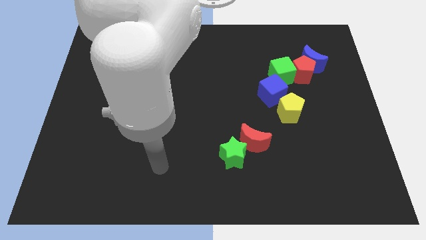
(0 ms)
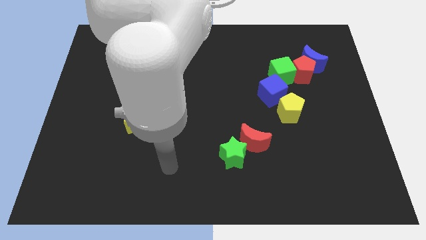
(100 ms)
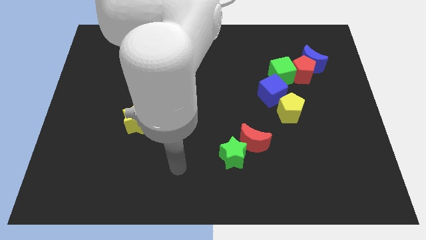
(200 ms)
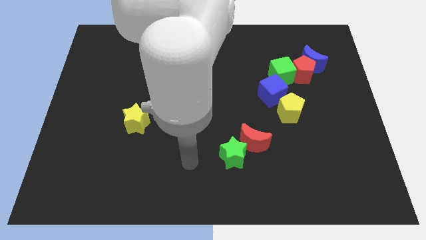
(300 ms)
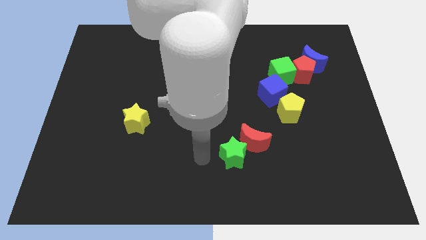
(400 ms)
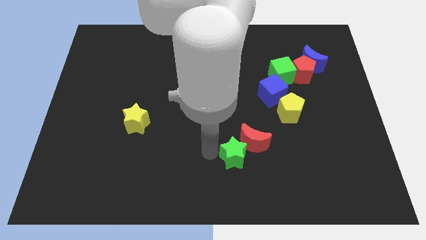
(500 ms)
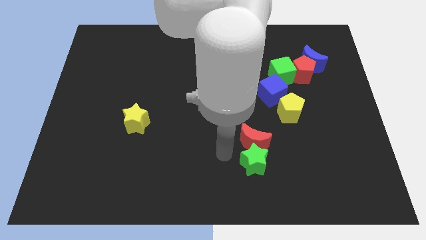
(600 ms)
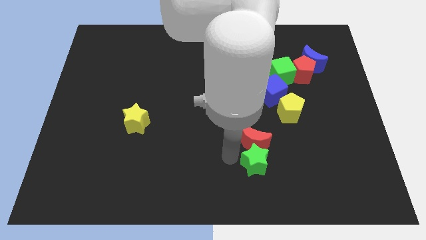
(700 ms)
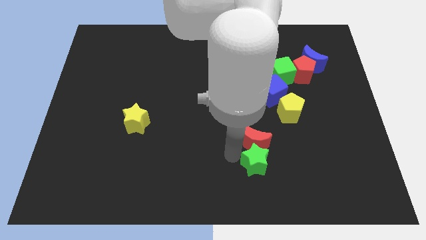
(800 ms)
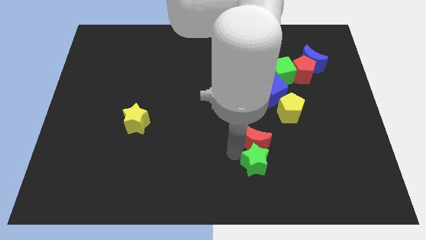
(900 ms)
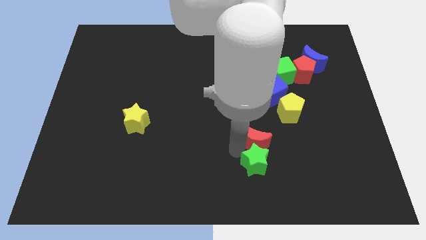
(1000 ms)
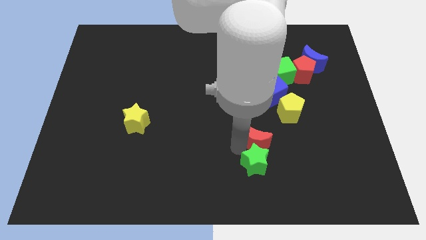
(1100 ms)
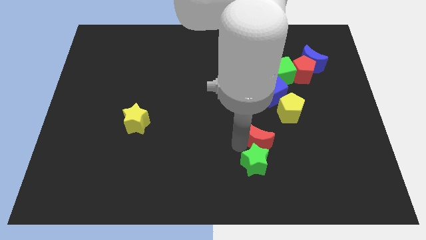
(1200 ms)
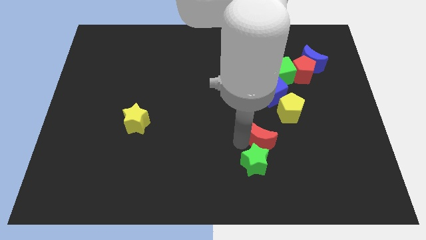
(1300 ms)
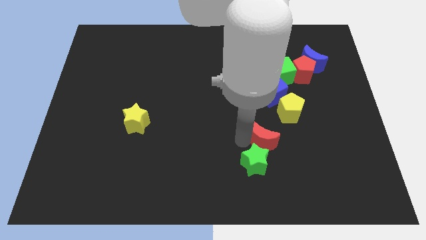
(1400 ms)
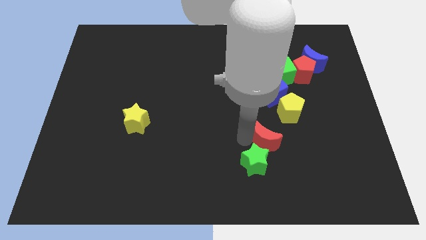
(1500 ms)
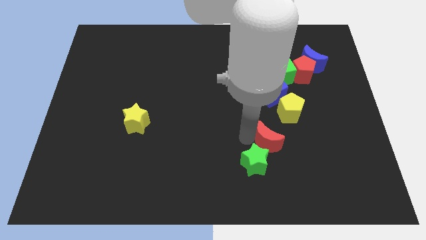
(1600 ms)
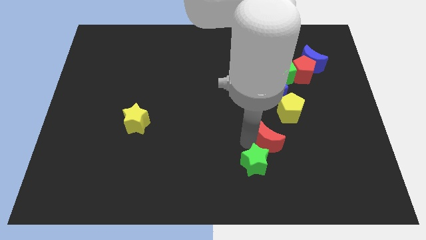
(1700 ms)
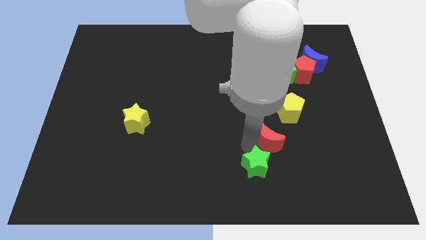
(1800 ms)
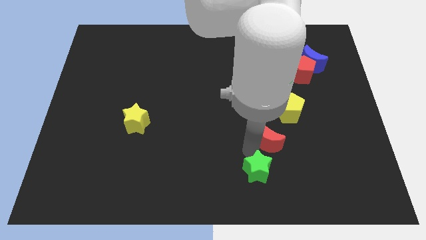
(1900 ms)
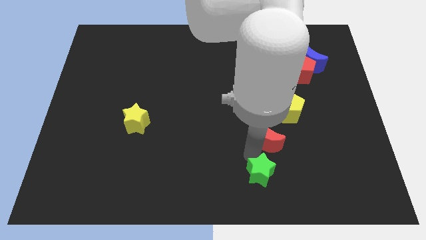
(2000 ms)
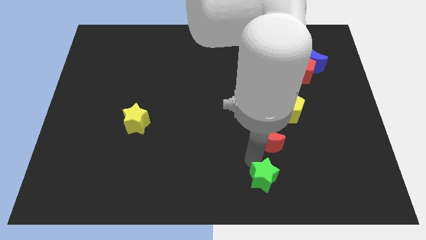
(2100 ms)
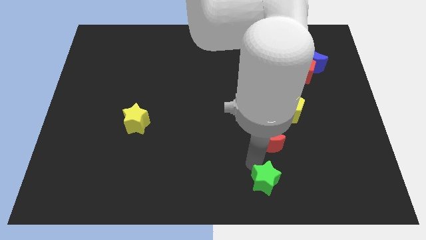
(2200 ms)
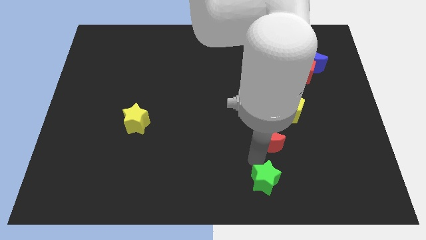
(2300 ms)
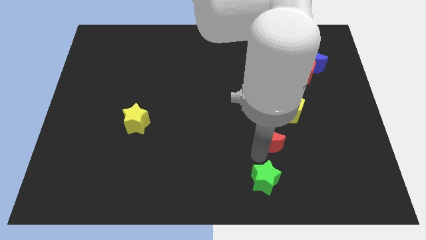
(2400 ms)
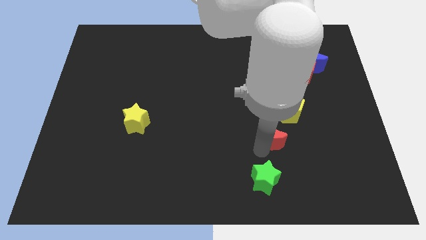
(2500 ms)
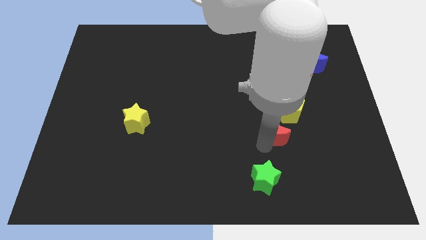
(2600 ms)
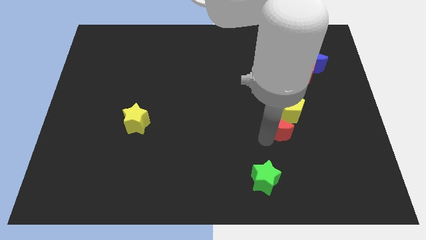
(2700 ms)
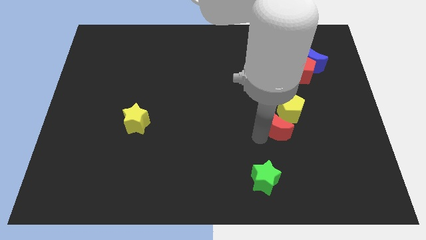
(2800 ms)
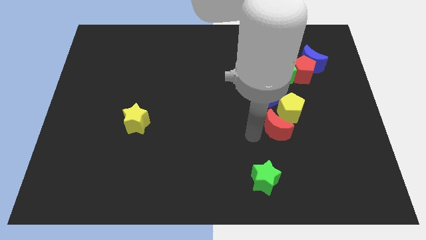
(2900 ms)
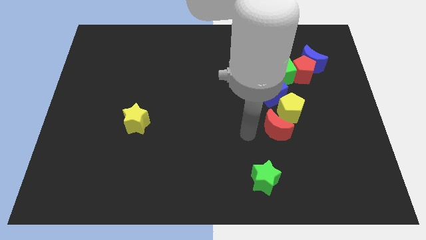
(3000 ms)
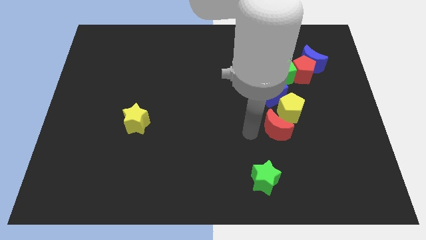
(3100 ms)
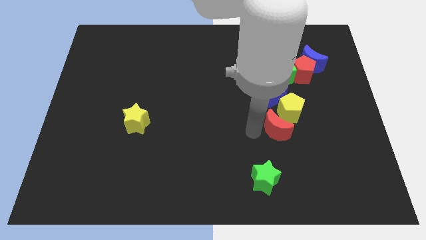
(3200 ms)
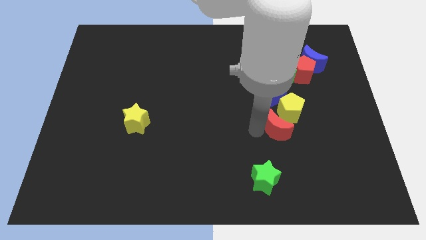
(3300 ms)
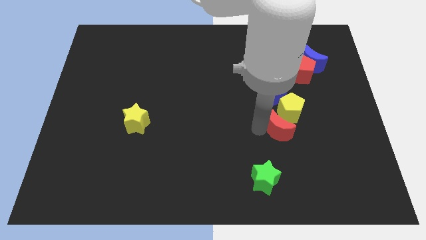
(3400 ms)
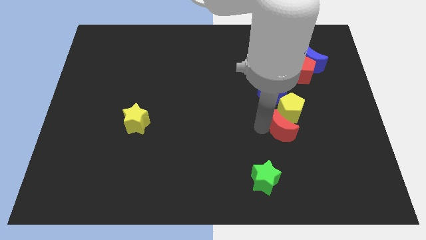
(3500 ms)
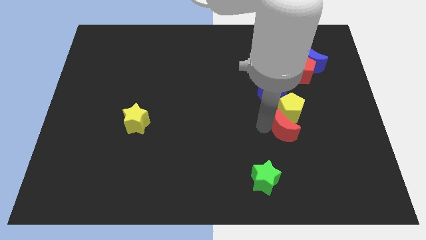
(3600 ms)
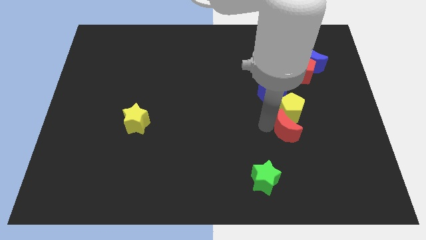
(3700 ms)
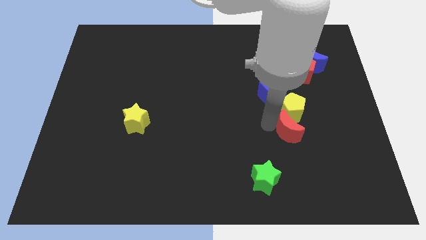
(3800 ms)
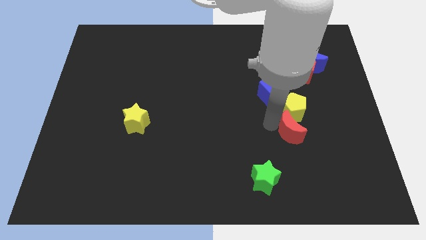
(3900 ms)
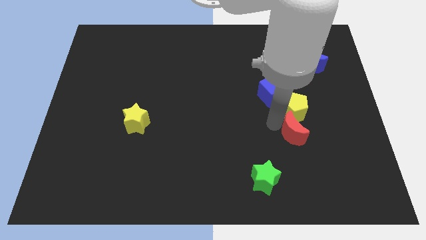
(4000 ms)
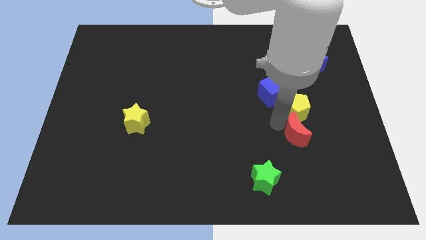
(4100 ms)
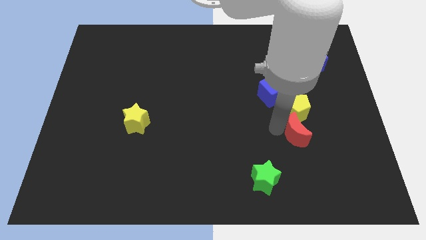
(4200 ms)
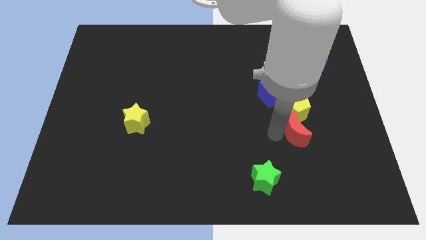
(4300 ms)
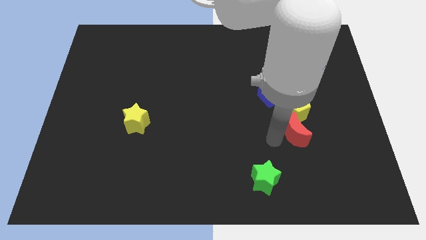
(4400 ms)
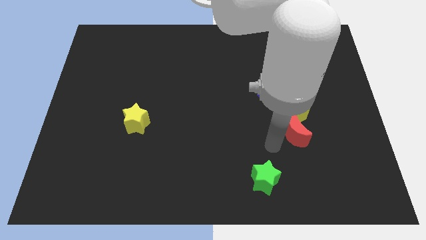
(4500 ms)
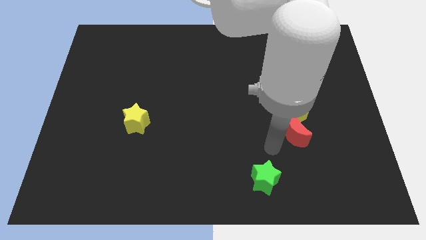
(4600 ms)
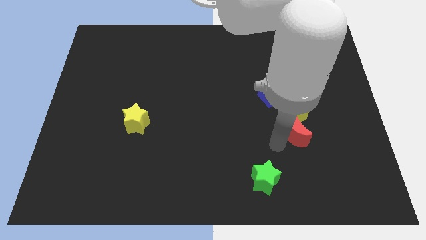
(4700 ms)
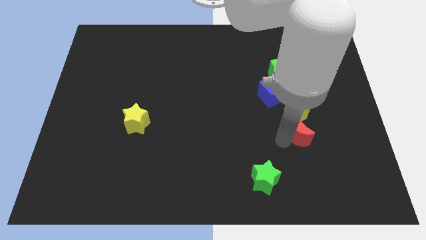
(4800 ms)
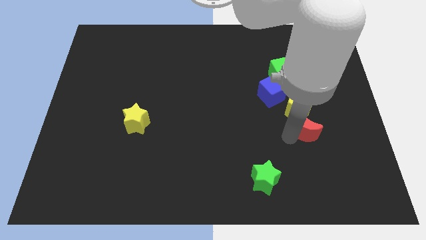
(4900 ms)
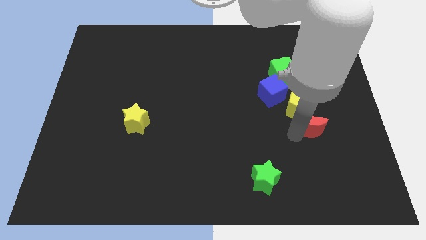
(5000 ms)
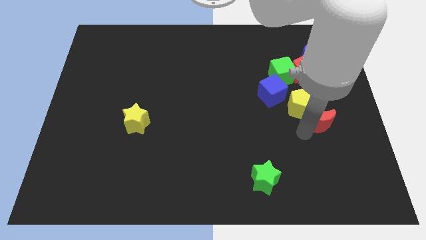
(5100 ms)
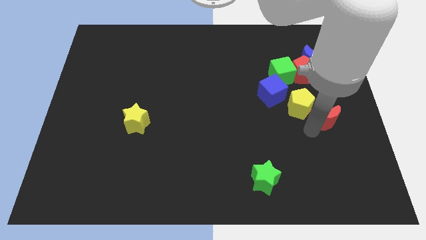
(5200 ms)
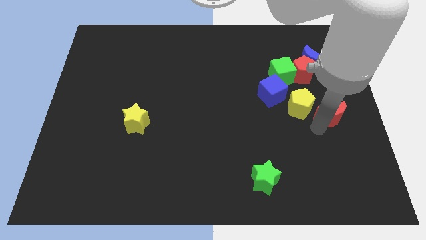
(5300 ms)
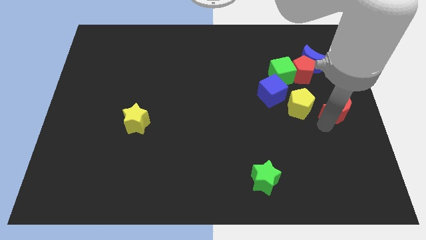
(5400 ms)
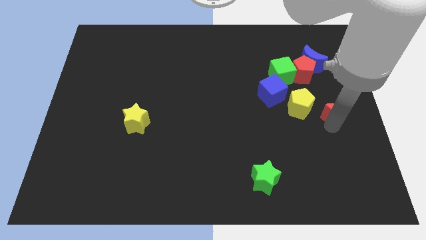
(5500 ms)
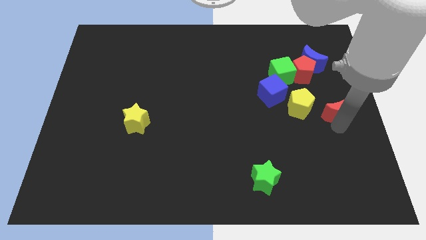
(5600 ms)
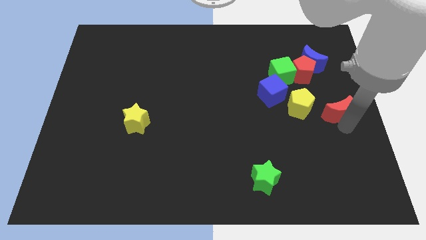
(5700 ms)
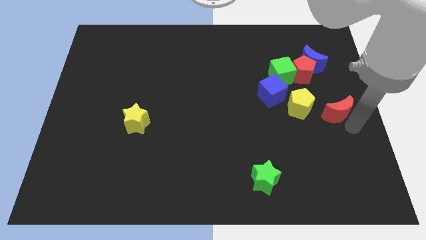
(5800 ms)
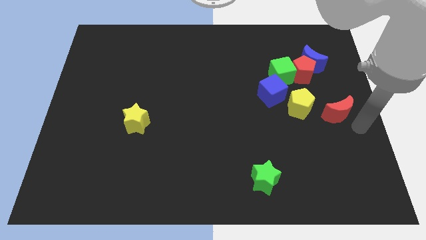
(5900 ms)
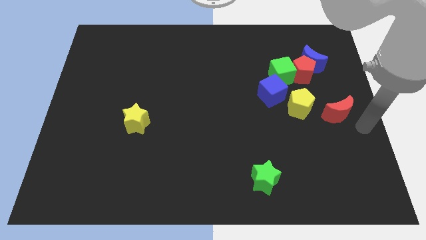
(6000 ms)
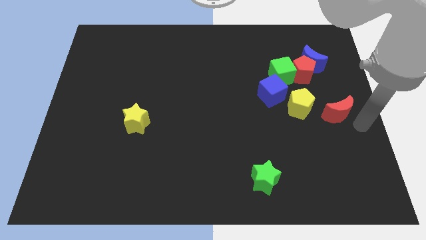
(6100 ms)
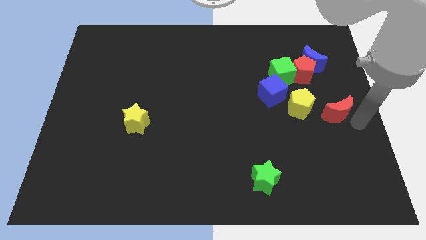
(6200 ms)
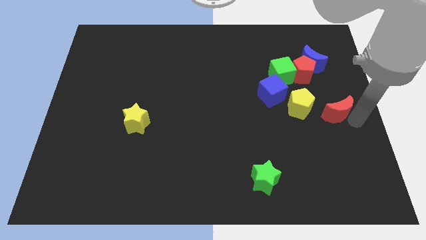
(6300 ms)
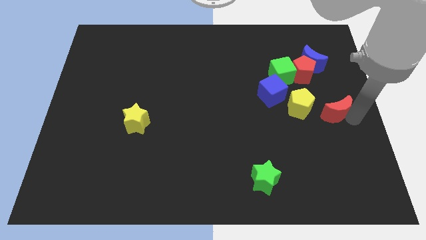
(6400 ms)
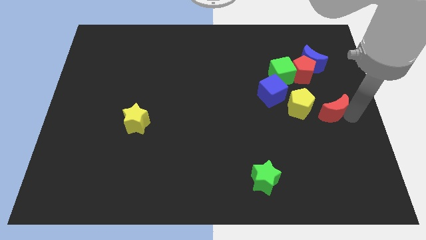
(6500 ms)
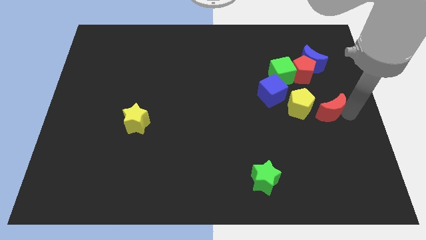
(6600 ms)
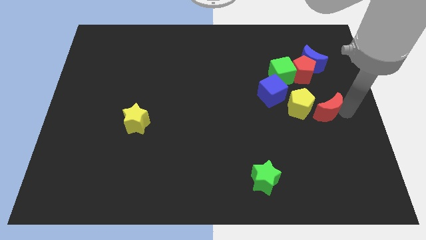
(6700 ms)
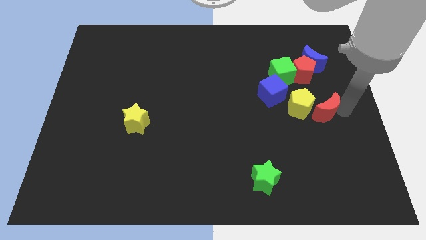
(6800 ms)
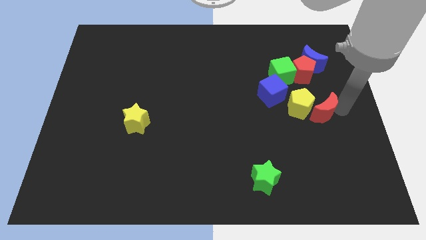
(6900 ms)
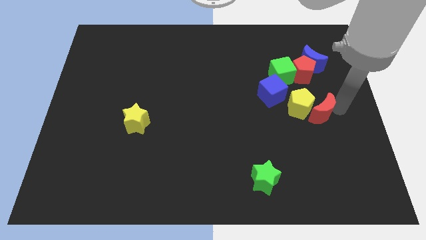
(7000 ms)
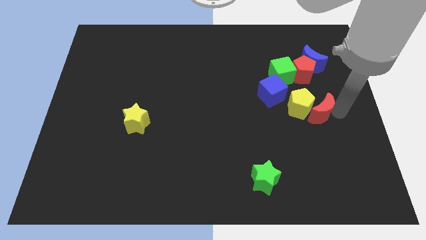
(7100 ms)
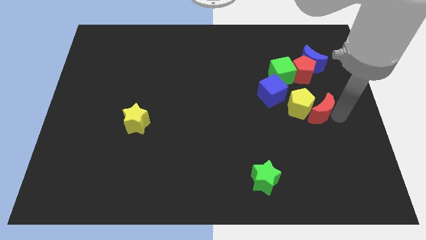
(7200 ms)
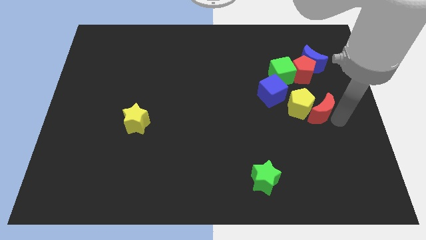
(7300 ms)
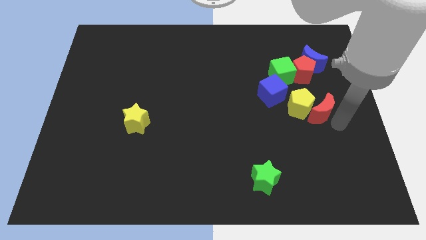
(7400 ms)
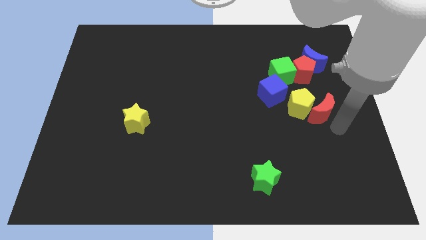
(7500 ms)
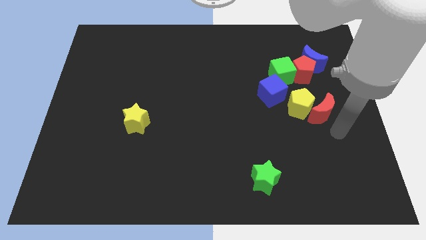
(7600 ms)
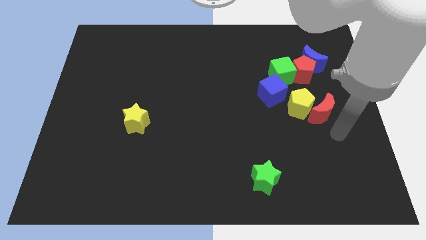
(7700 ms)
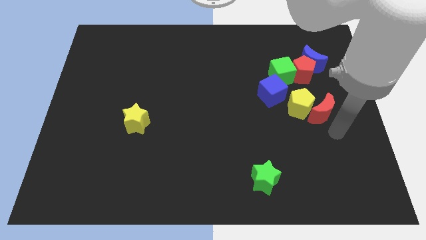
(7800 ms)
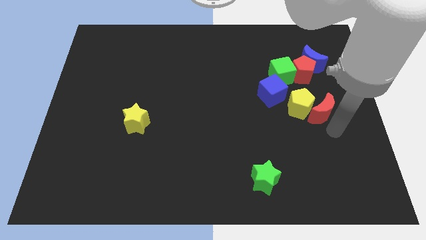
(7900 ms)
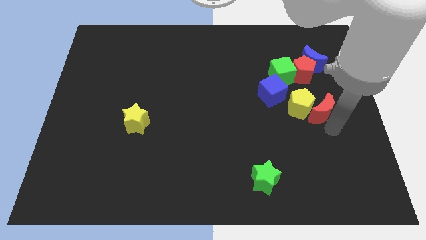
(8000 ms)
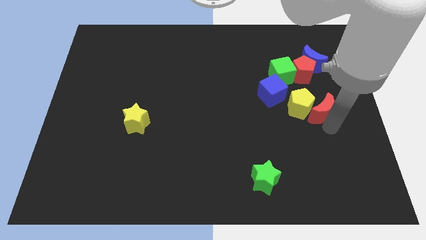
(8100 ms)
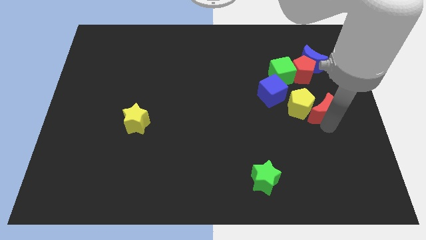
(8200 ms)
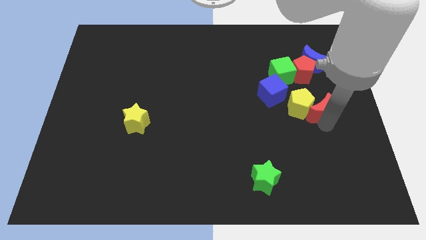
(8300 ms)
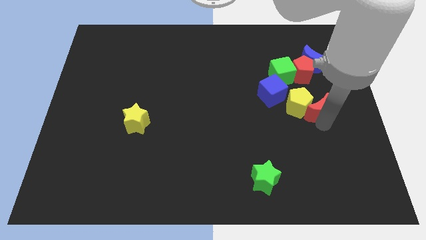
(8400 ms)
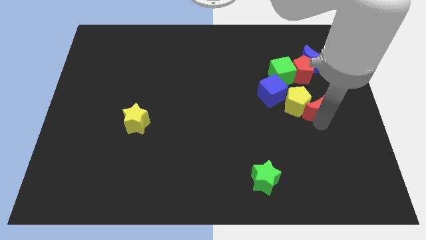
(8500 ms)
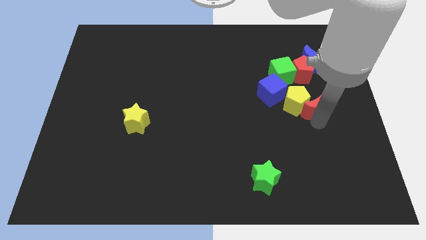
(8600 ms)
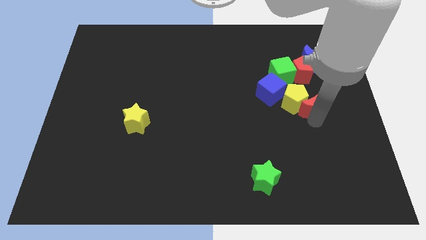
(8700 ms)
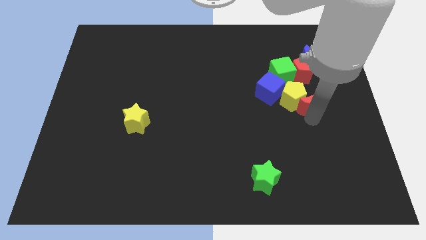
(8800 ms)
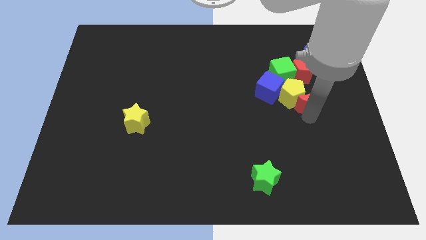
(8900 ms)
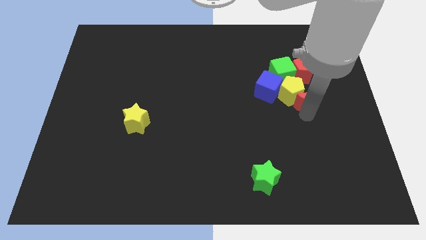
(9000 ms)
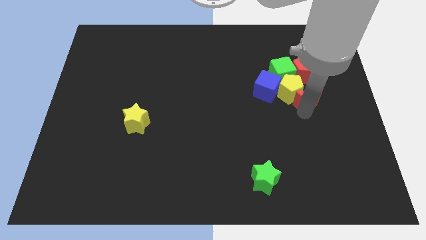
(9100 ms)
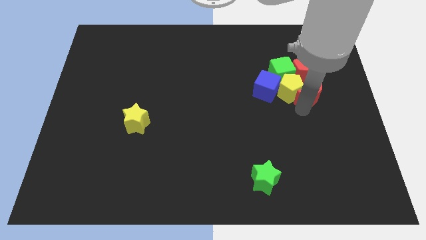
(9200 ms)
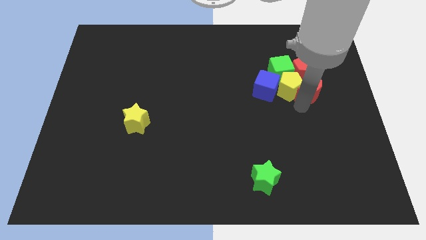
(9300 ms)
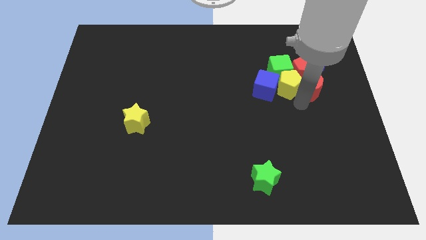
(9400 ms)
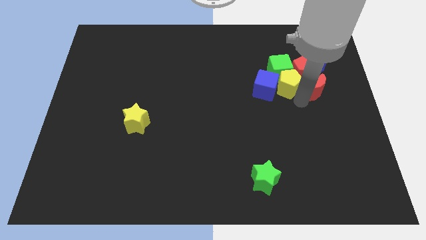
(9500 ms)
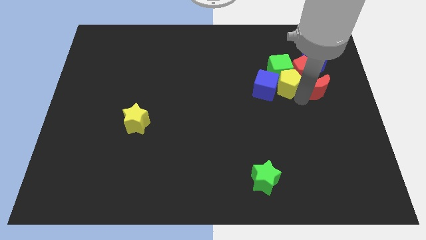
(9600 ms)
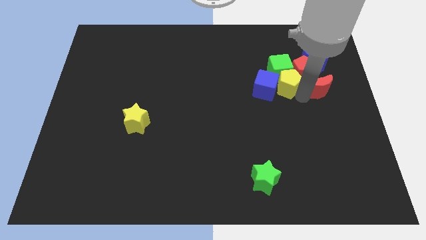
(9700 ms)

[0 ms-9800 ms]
slide the red moon to the red pentagon
